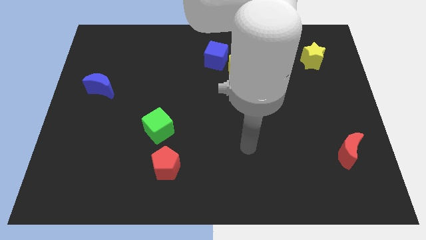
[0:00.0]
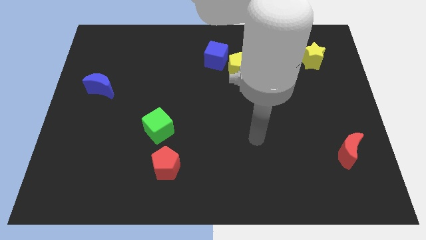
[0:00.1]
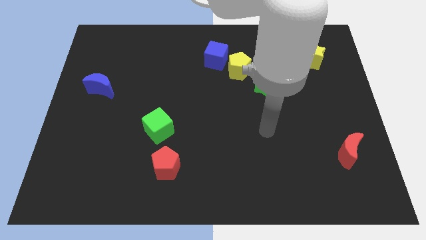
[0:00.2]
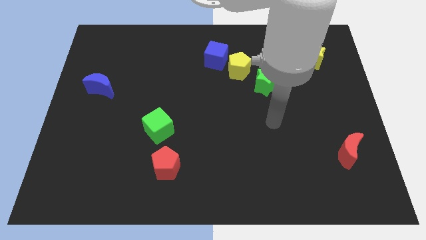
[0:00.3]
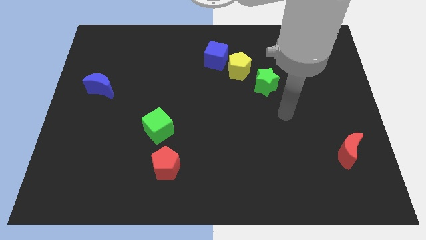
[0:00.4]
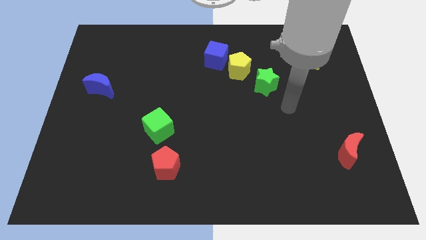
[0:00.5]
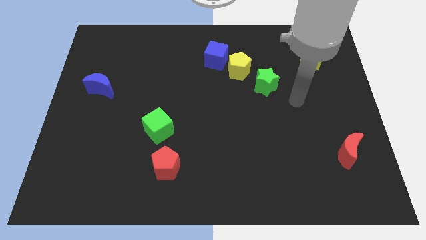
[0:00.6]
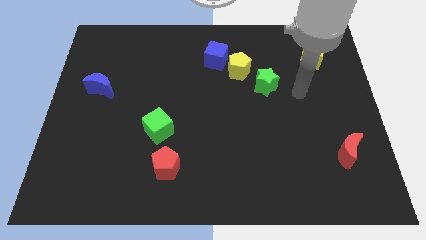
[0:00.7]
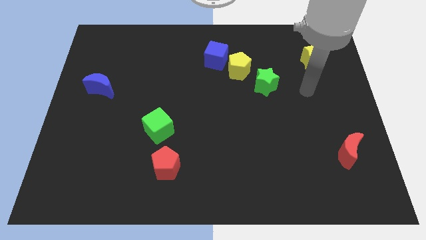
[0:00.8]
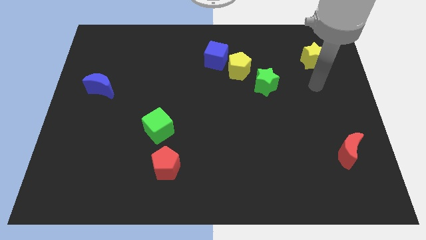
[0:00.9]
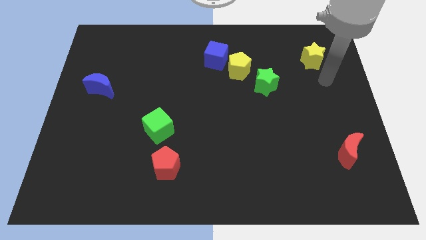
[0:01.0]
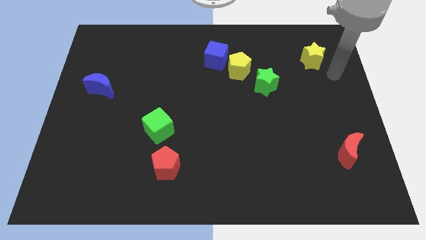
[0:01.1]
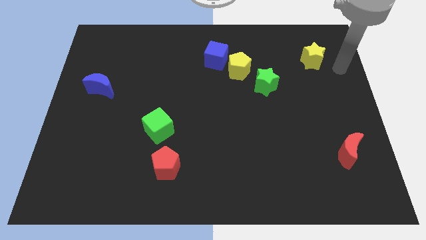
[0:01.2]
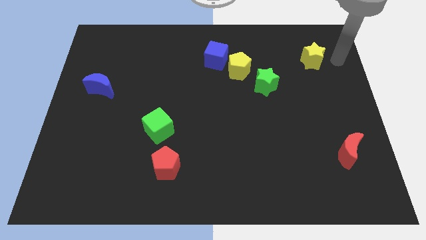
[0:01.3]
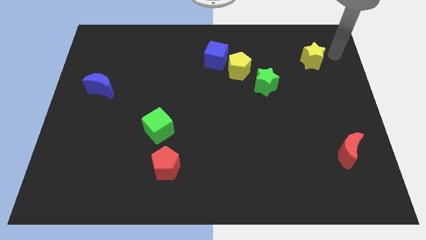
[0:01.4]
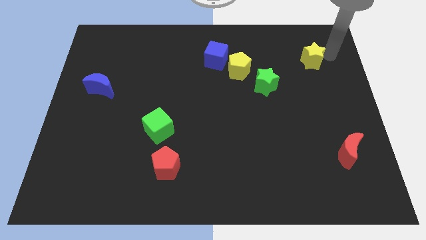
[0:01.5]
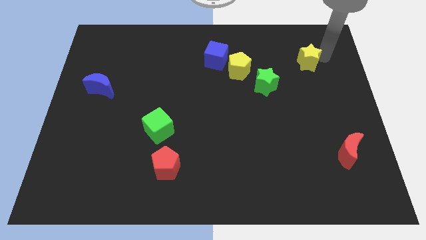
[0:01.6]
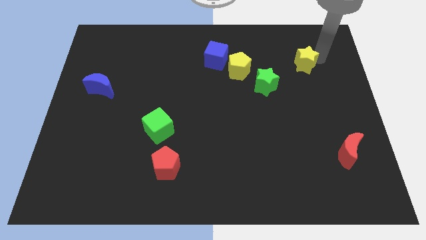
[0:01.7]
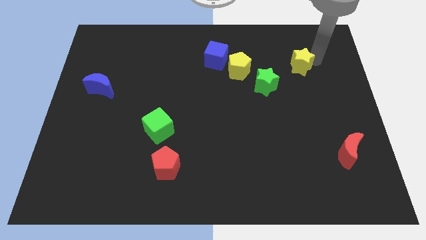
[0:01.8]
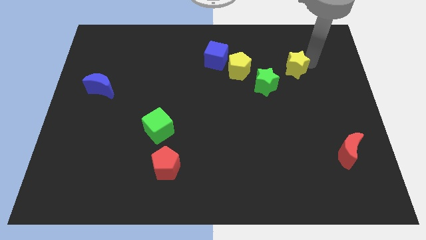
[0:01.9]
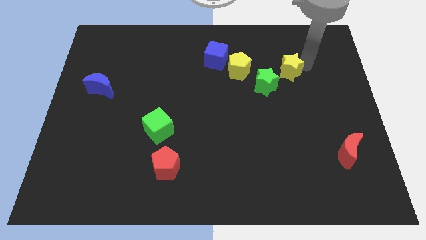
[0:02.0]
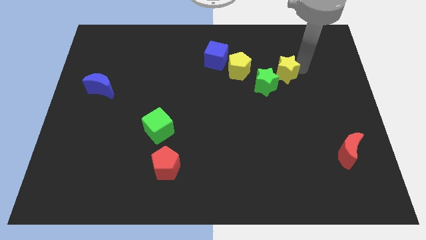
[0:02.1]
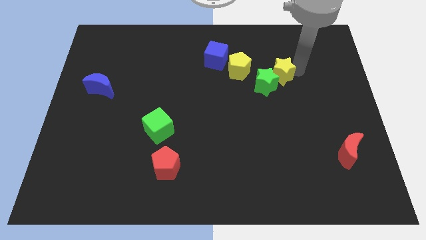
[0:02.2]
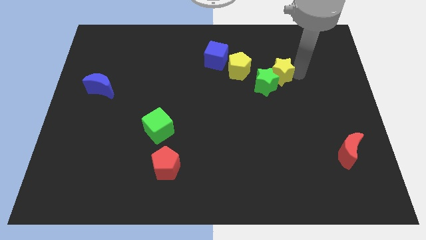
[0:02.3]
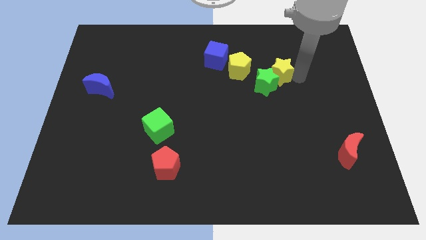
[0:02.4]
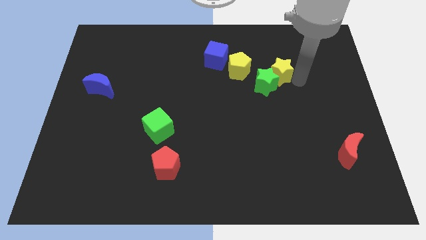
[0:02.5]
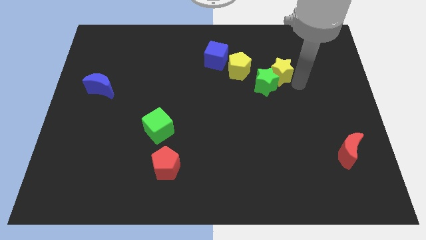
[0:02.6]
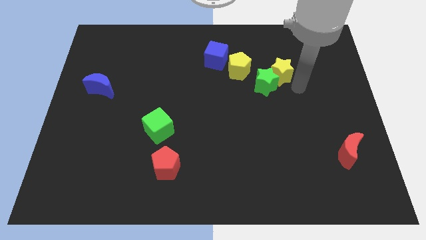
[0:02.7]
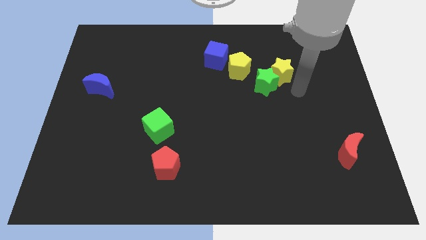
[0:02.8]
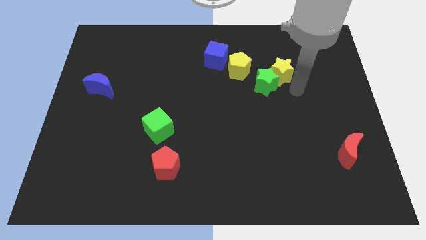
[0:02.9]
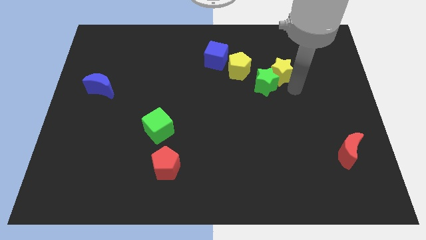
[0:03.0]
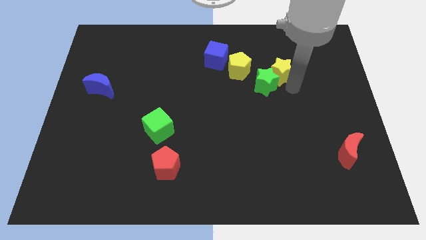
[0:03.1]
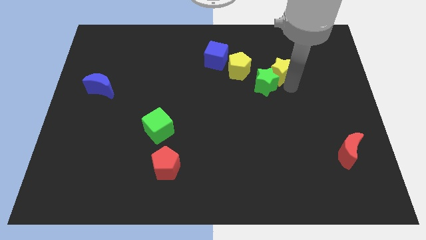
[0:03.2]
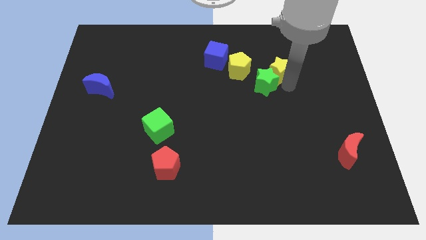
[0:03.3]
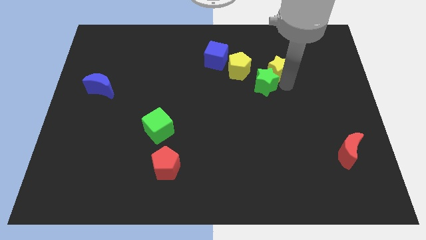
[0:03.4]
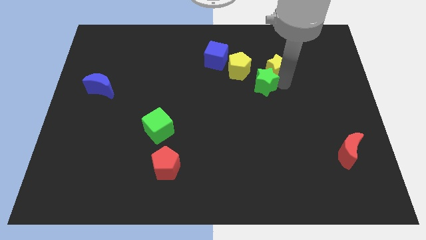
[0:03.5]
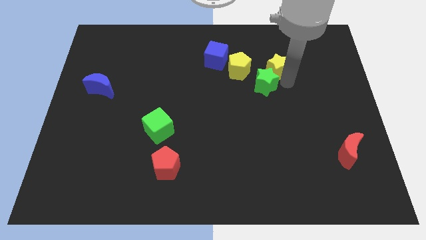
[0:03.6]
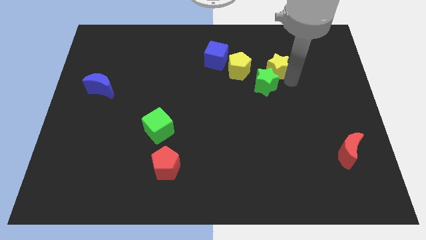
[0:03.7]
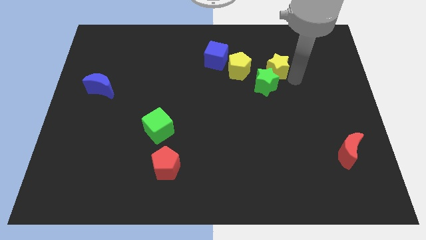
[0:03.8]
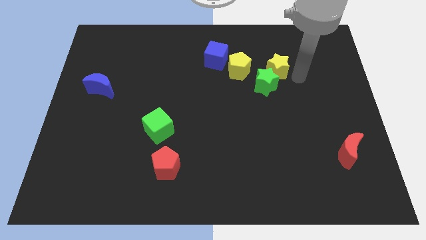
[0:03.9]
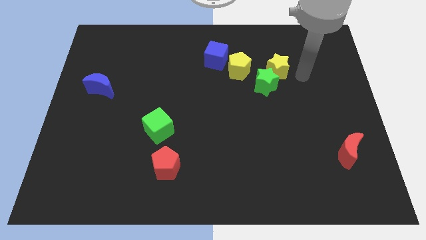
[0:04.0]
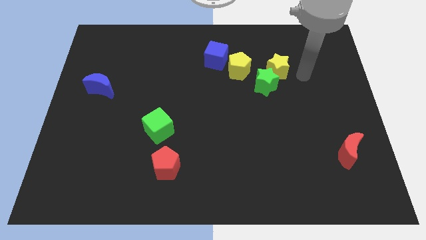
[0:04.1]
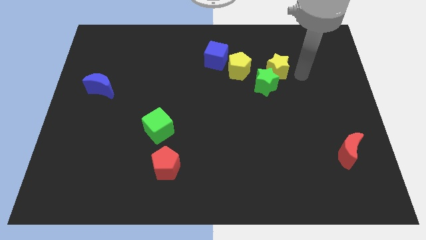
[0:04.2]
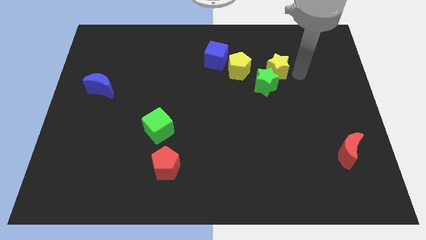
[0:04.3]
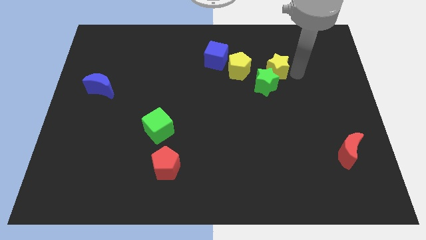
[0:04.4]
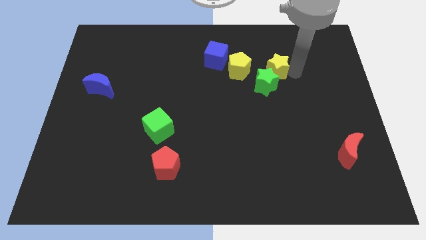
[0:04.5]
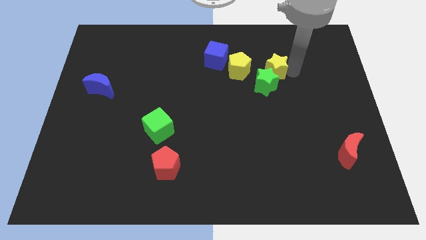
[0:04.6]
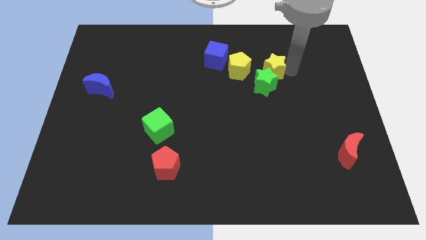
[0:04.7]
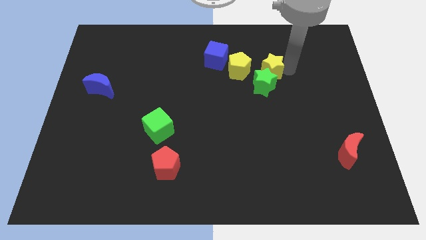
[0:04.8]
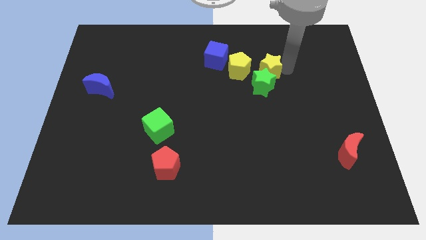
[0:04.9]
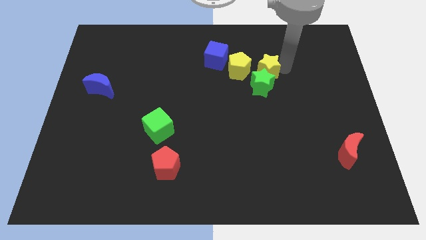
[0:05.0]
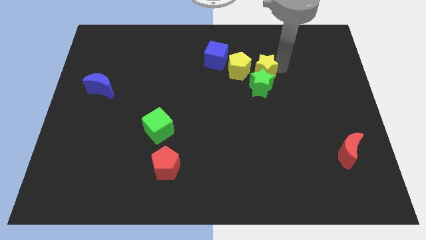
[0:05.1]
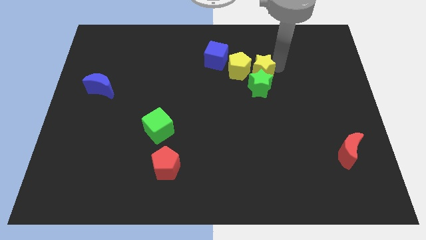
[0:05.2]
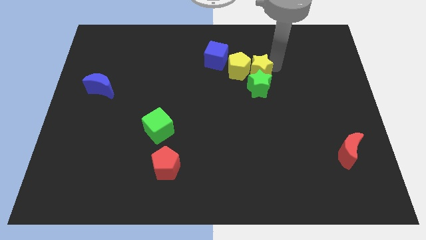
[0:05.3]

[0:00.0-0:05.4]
put the yellow star close to the yellow pentagon
